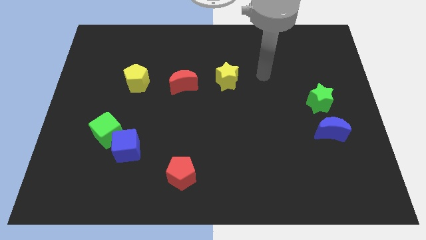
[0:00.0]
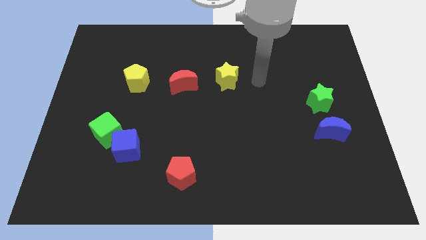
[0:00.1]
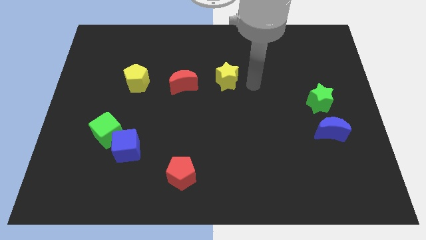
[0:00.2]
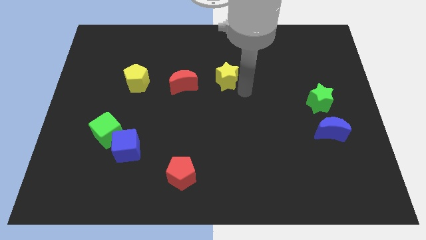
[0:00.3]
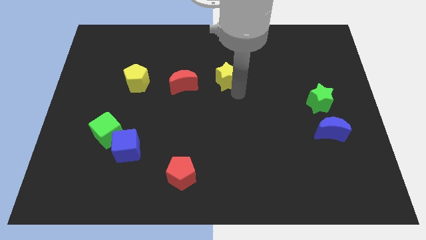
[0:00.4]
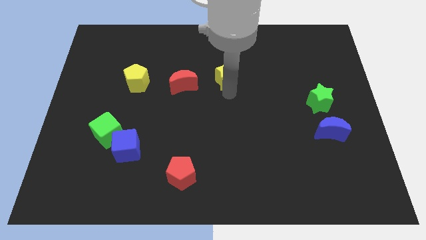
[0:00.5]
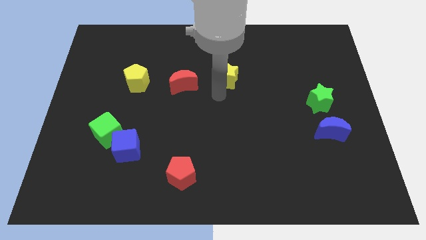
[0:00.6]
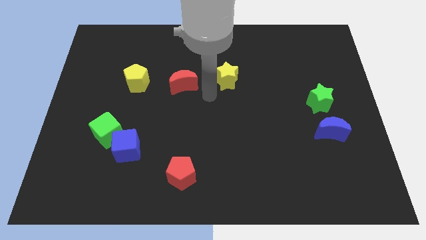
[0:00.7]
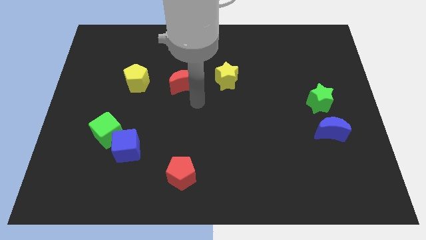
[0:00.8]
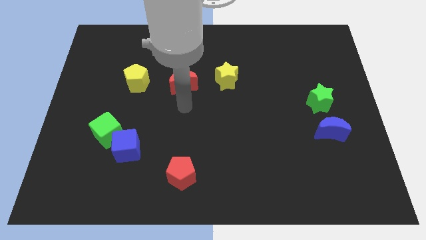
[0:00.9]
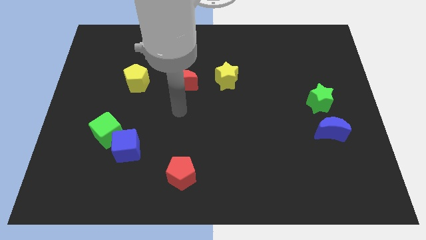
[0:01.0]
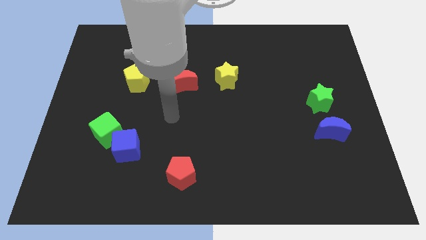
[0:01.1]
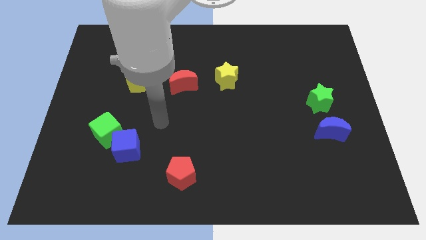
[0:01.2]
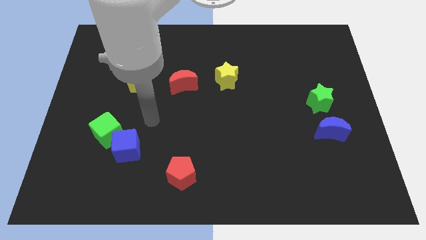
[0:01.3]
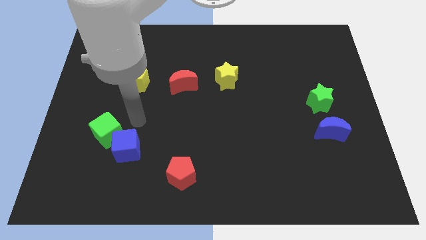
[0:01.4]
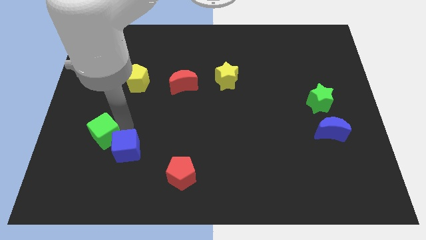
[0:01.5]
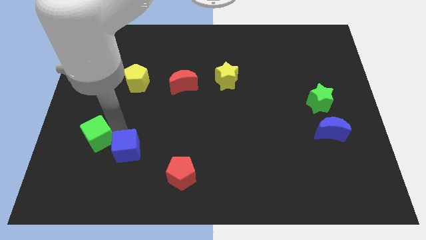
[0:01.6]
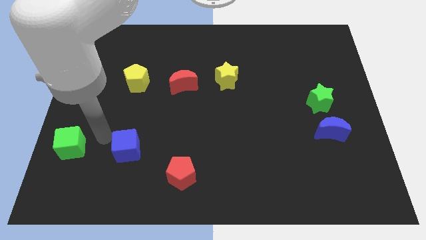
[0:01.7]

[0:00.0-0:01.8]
move the blue cube away from the green cube

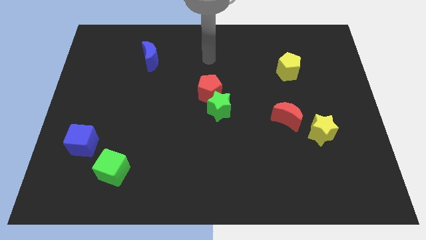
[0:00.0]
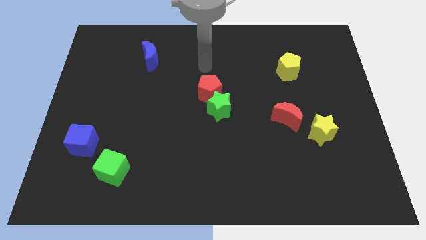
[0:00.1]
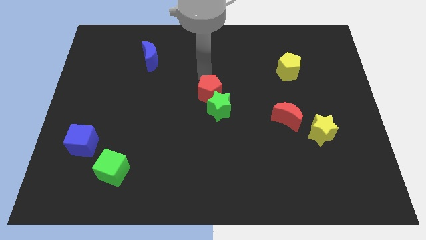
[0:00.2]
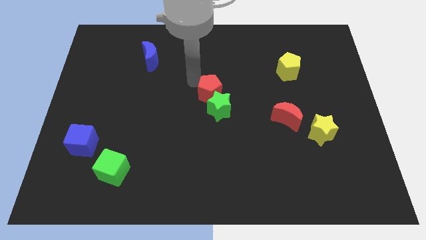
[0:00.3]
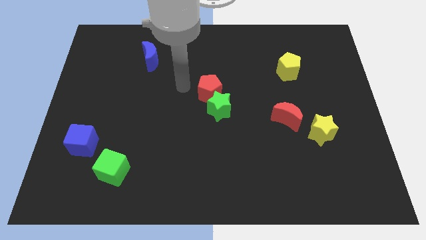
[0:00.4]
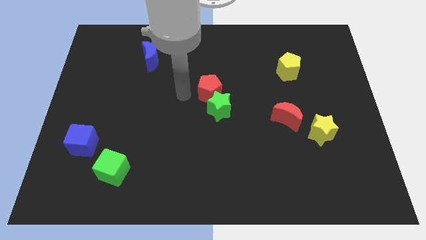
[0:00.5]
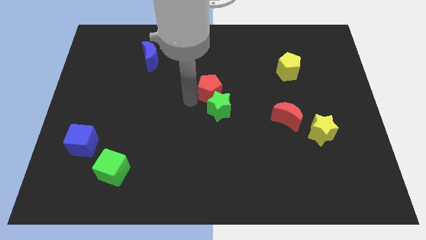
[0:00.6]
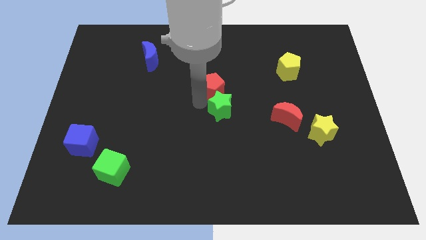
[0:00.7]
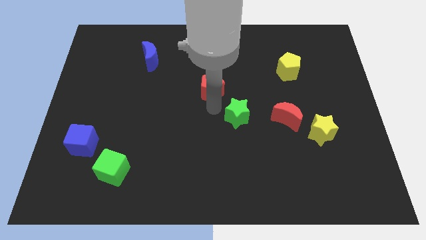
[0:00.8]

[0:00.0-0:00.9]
separate the red pentagon from the green star

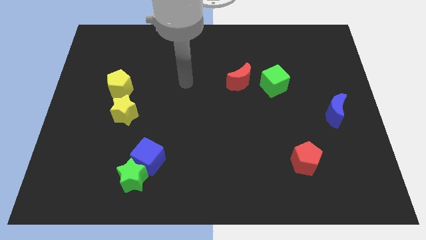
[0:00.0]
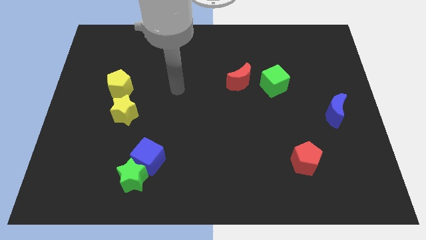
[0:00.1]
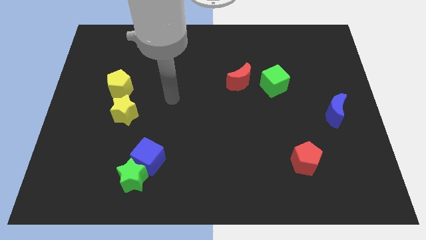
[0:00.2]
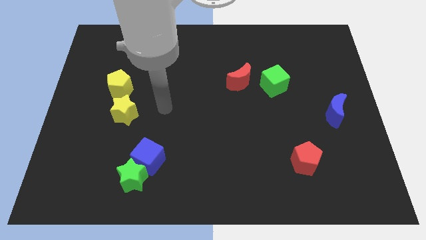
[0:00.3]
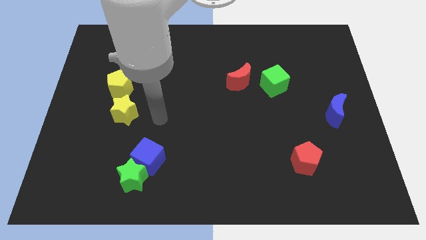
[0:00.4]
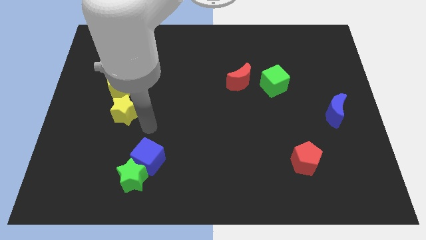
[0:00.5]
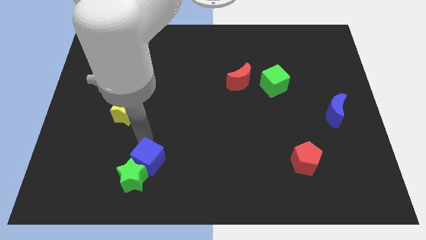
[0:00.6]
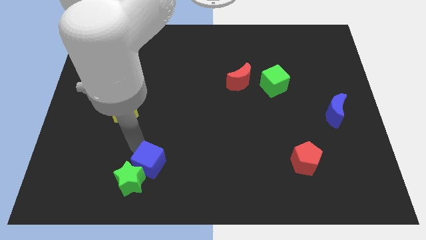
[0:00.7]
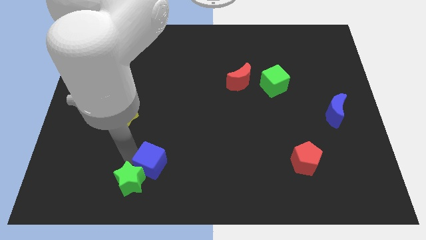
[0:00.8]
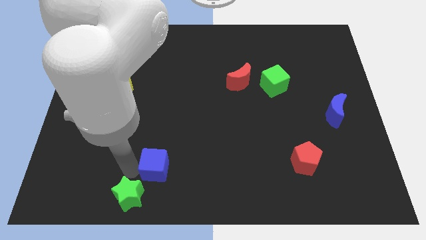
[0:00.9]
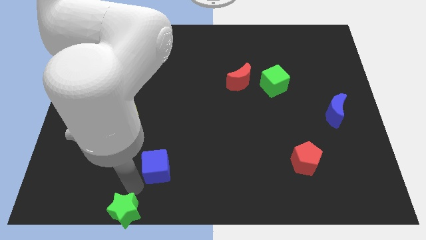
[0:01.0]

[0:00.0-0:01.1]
pull the blue cube apart from the green star

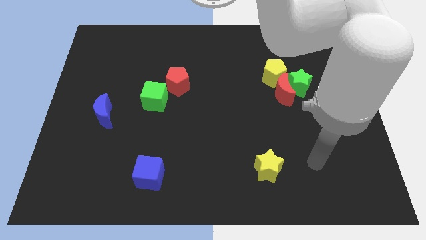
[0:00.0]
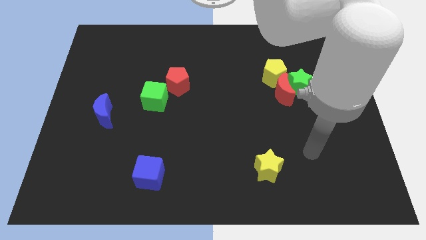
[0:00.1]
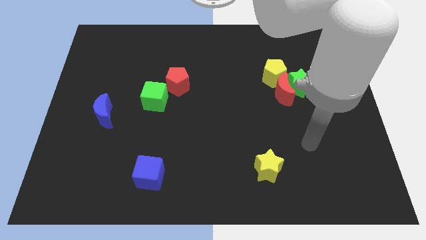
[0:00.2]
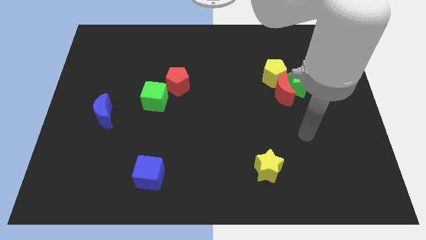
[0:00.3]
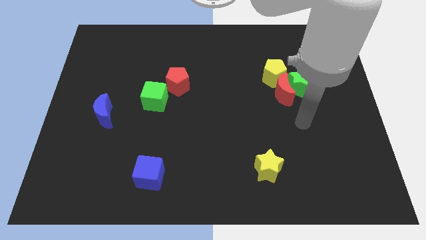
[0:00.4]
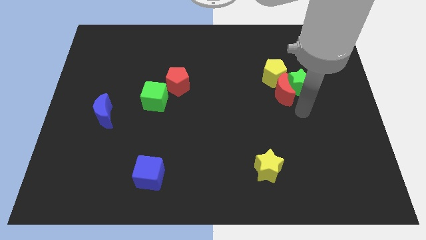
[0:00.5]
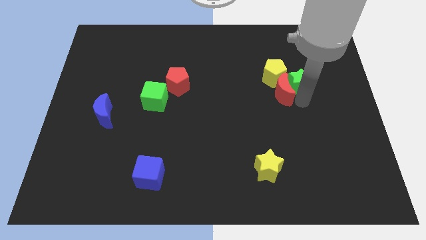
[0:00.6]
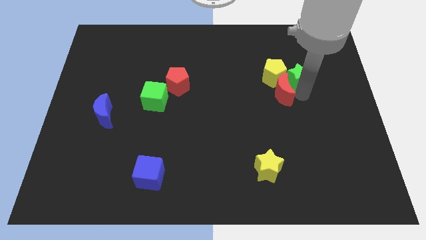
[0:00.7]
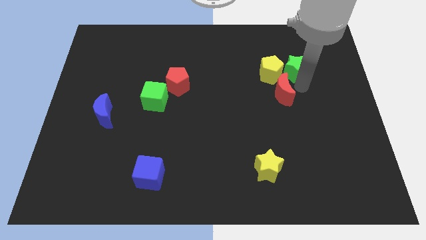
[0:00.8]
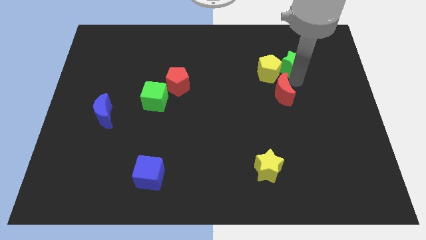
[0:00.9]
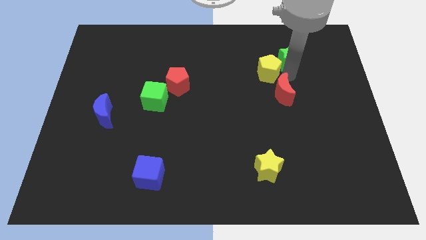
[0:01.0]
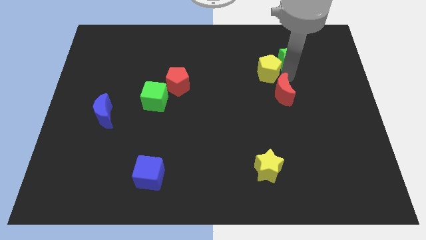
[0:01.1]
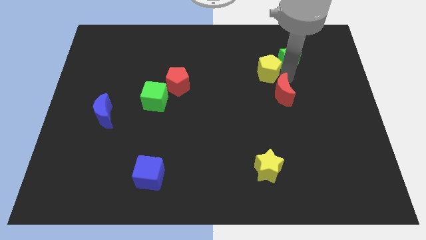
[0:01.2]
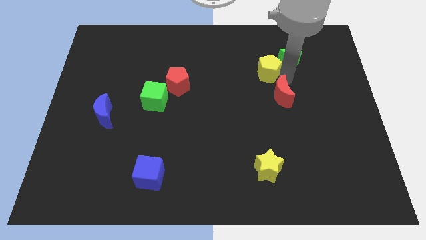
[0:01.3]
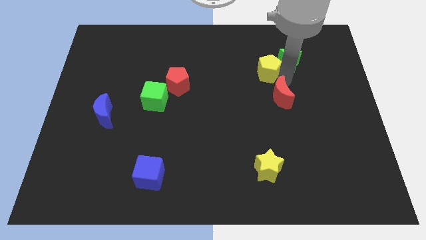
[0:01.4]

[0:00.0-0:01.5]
separate the red moon from the green star and yellow pentagon

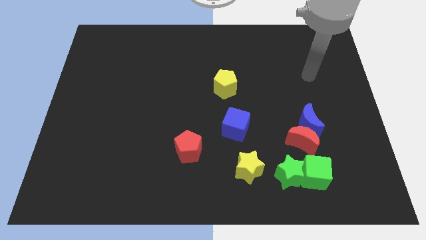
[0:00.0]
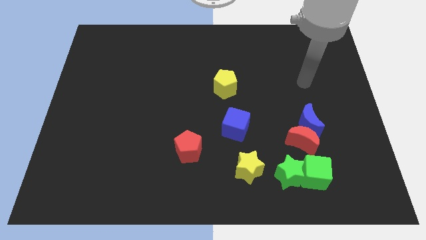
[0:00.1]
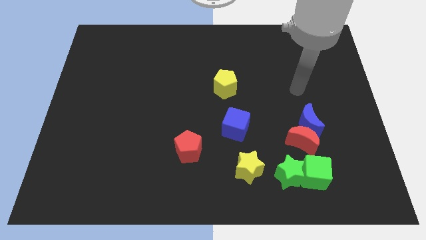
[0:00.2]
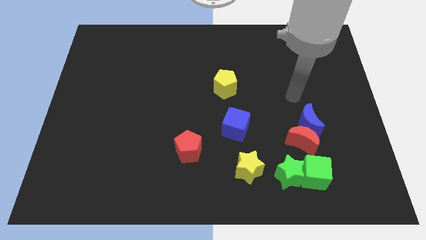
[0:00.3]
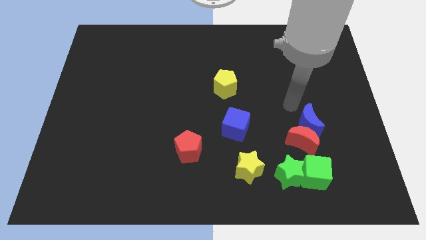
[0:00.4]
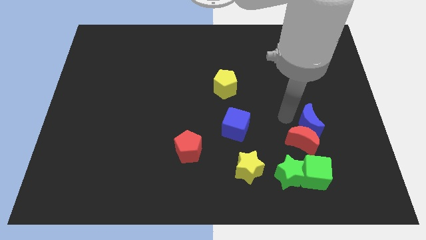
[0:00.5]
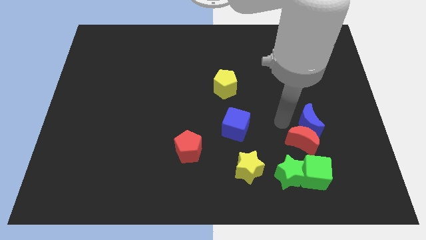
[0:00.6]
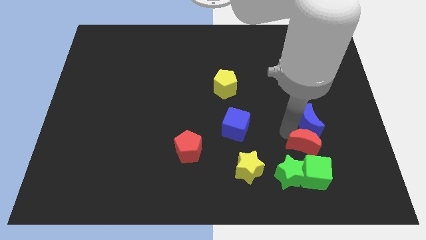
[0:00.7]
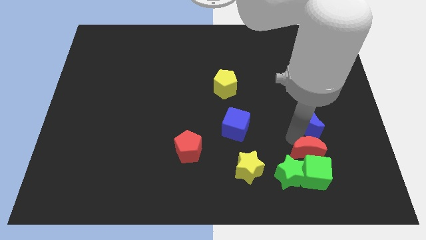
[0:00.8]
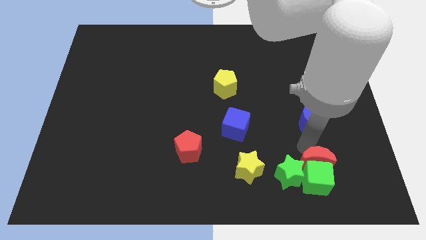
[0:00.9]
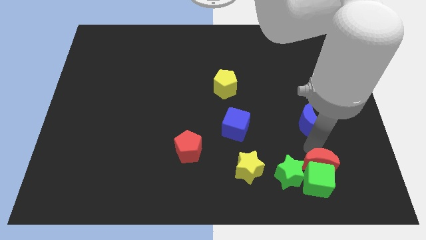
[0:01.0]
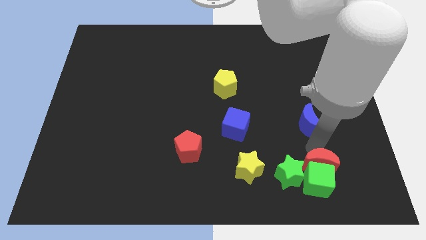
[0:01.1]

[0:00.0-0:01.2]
move the blue moon away from the red moon

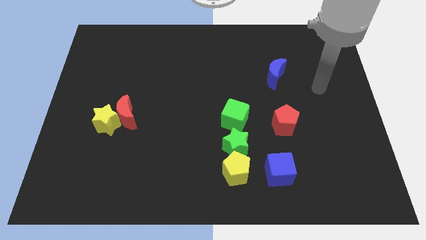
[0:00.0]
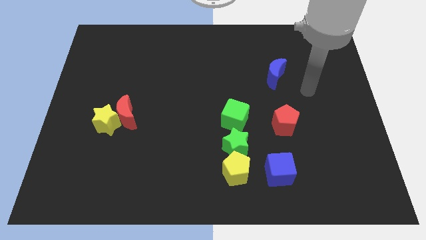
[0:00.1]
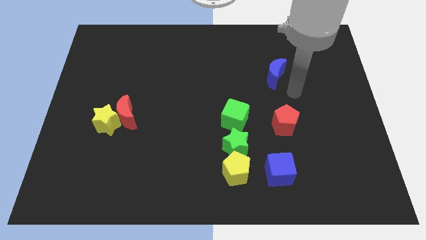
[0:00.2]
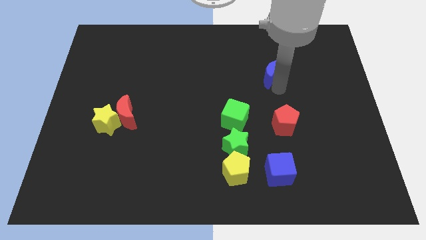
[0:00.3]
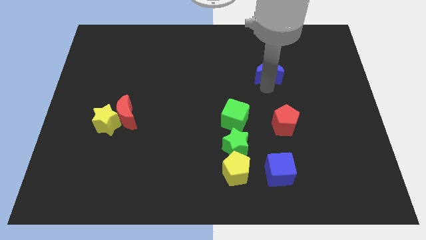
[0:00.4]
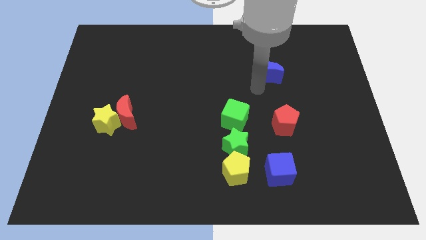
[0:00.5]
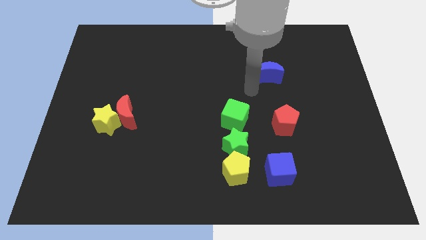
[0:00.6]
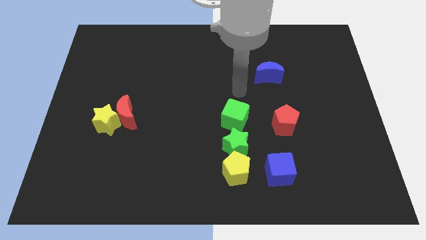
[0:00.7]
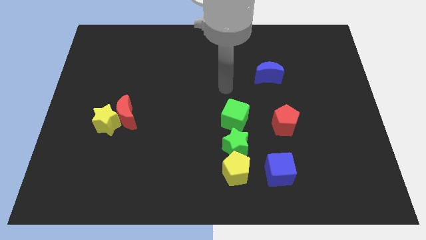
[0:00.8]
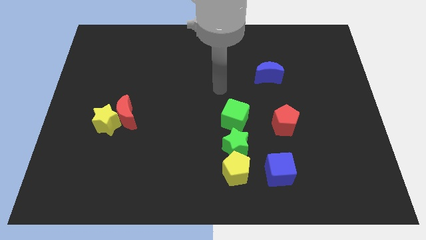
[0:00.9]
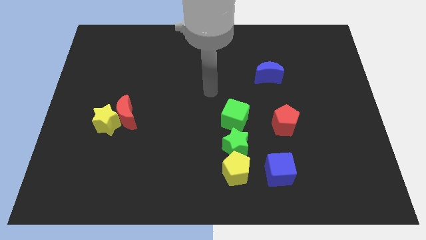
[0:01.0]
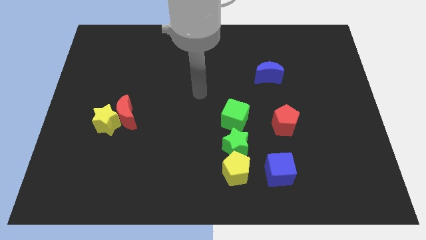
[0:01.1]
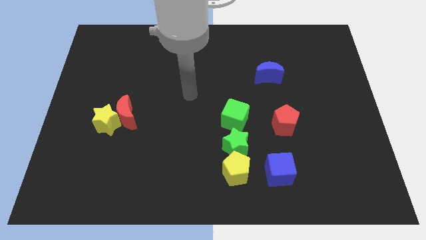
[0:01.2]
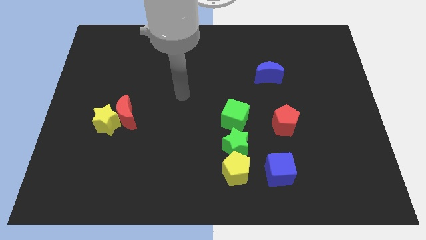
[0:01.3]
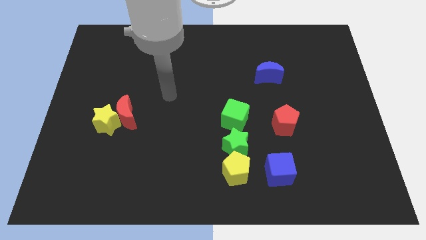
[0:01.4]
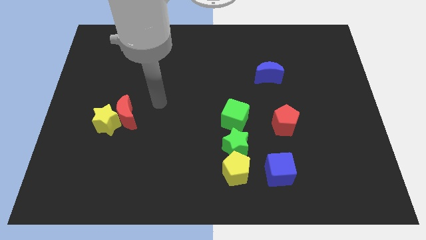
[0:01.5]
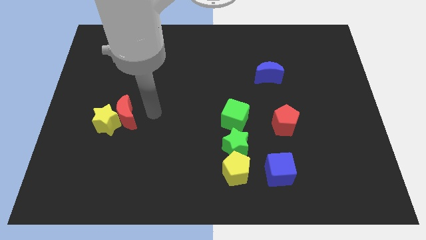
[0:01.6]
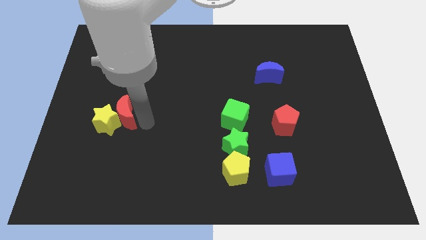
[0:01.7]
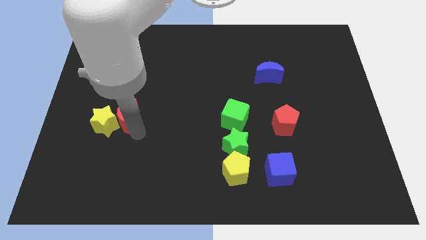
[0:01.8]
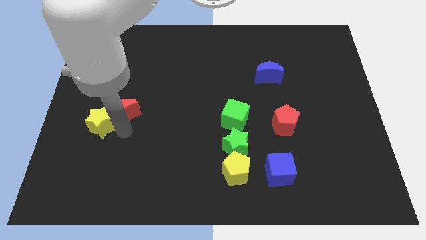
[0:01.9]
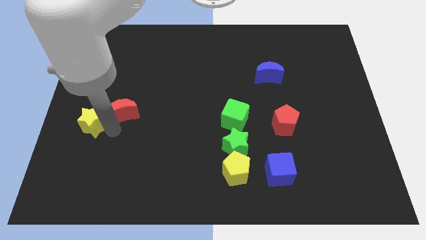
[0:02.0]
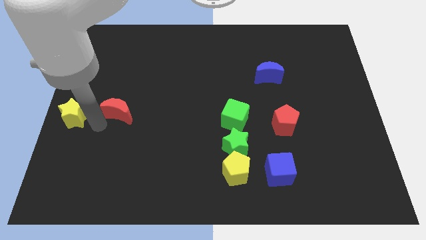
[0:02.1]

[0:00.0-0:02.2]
separate the red moon from the yellow star

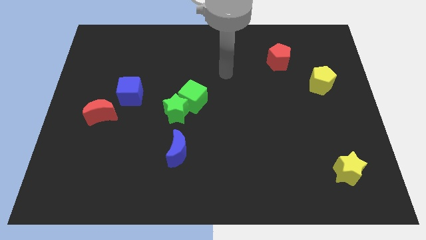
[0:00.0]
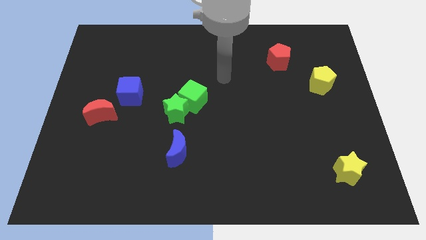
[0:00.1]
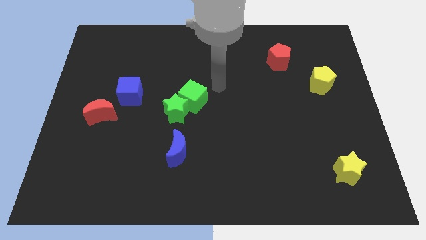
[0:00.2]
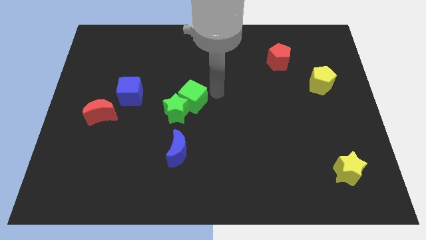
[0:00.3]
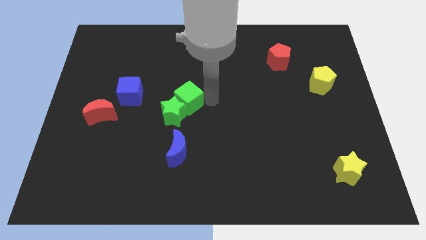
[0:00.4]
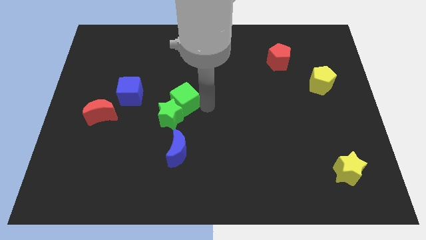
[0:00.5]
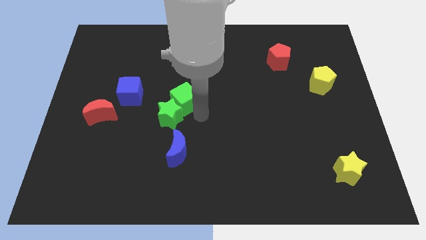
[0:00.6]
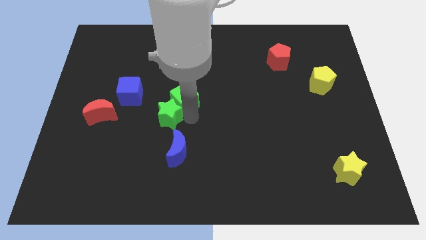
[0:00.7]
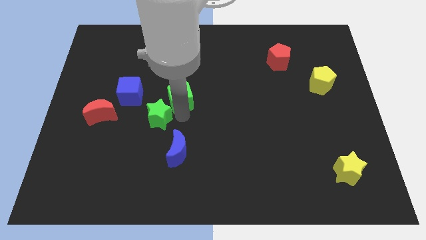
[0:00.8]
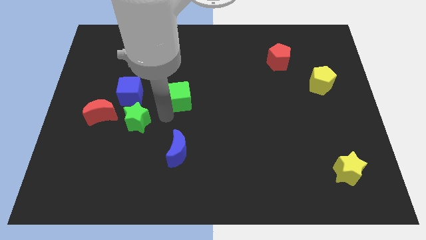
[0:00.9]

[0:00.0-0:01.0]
move the green cube away from the green star
